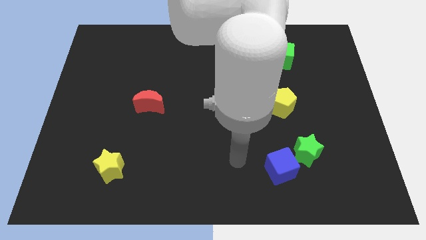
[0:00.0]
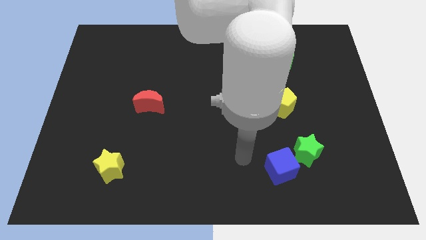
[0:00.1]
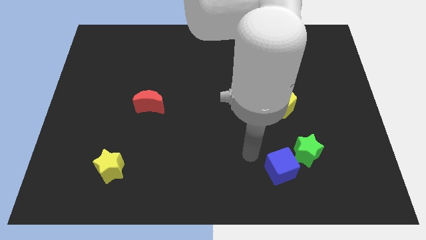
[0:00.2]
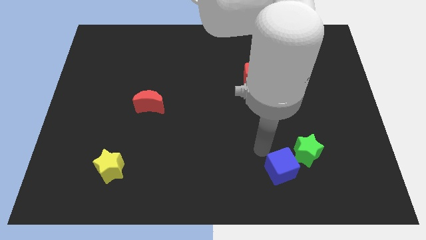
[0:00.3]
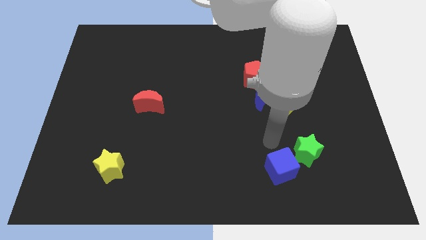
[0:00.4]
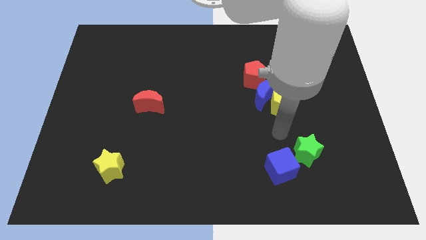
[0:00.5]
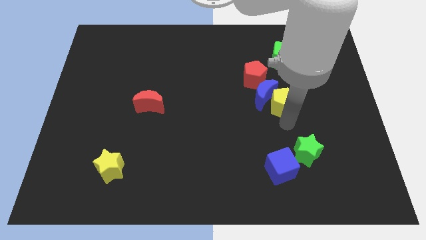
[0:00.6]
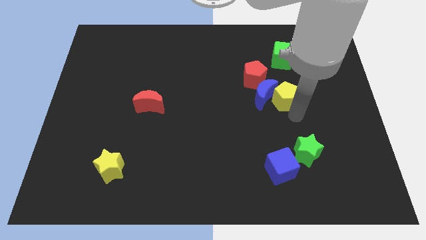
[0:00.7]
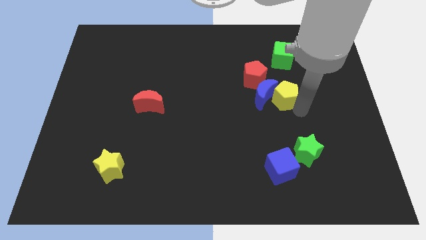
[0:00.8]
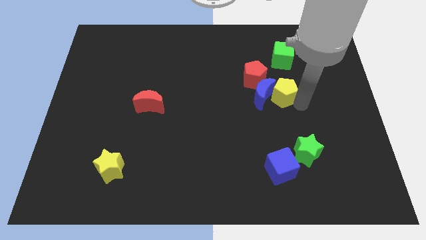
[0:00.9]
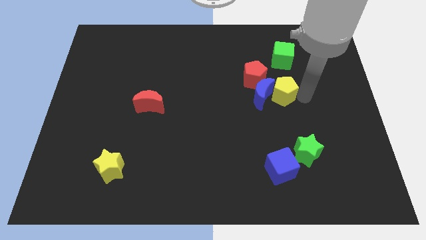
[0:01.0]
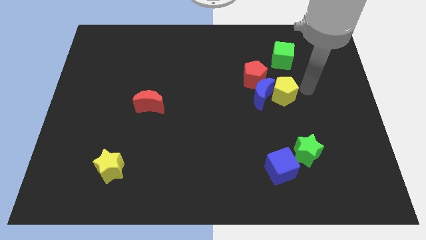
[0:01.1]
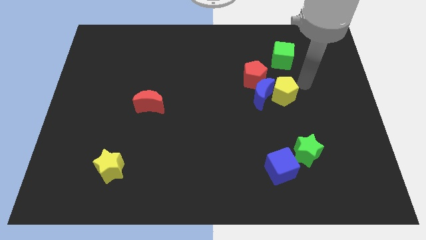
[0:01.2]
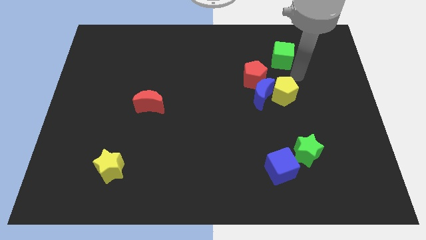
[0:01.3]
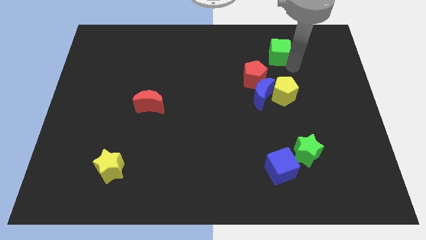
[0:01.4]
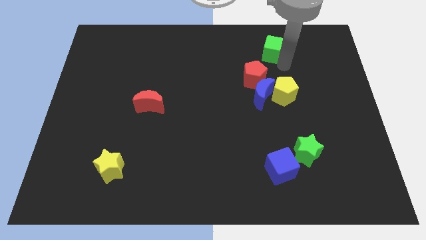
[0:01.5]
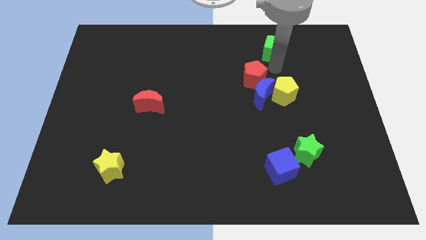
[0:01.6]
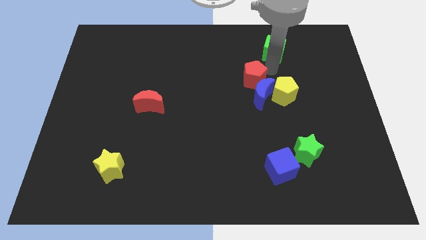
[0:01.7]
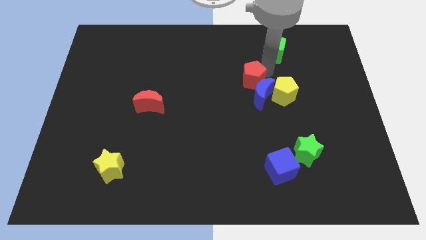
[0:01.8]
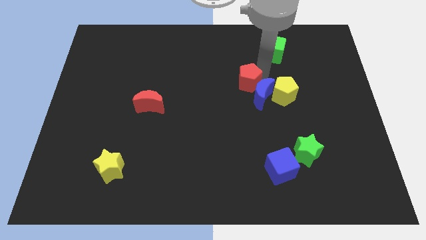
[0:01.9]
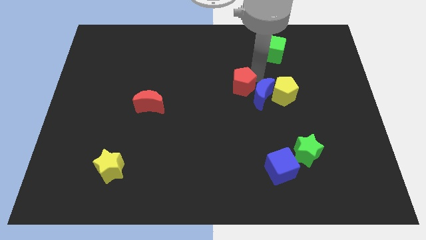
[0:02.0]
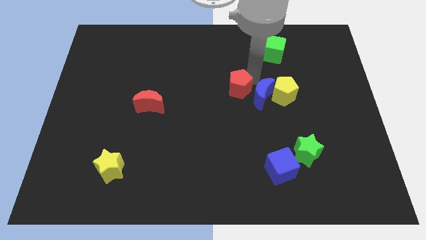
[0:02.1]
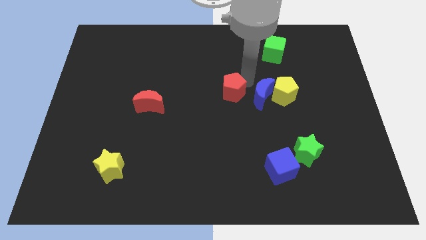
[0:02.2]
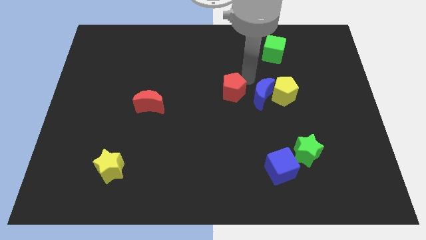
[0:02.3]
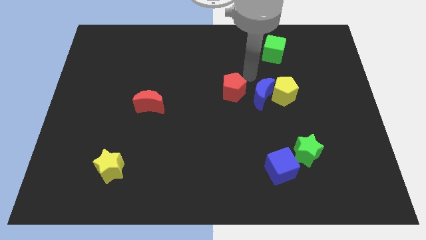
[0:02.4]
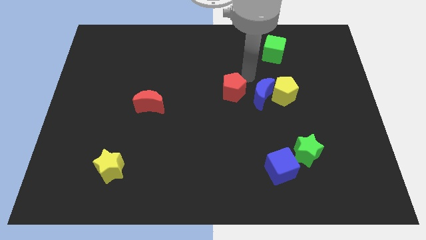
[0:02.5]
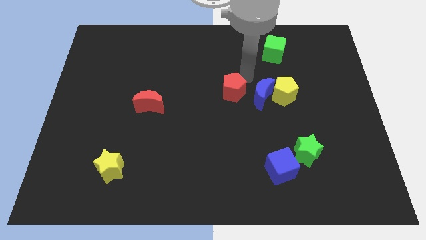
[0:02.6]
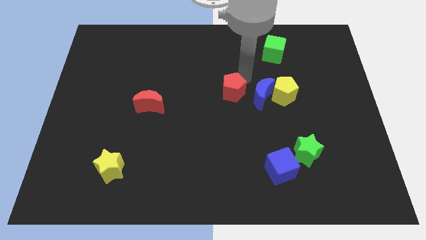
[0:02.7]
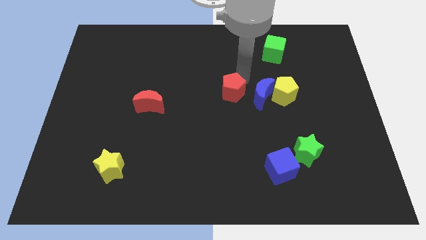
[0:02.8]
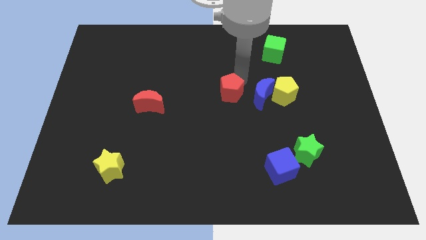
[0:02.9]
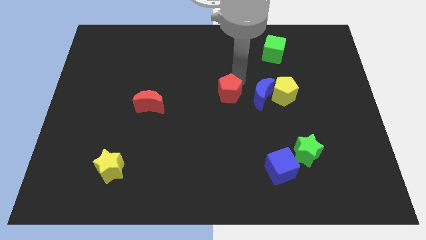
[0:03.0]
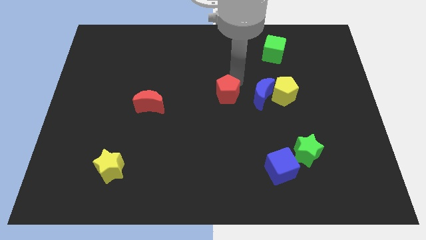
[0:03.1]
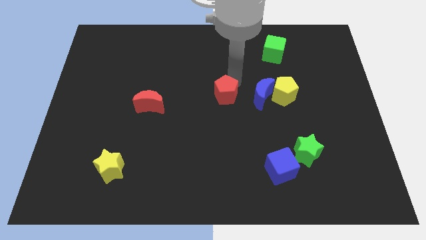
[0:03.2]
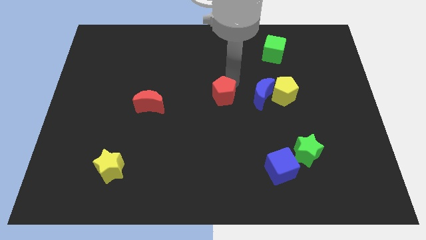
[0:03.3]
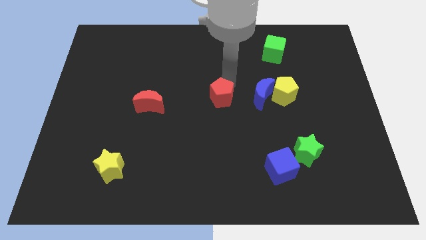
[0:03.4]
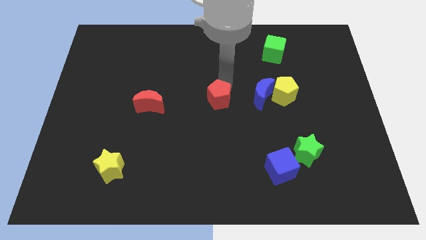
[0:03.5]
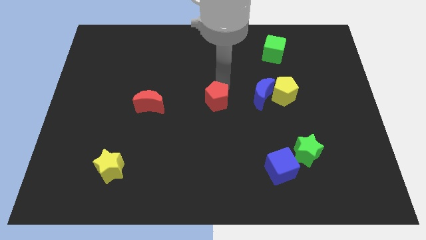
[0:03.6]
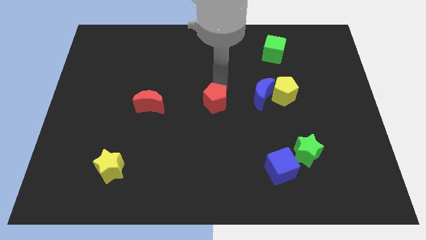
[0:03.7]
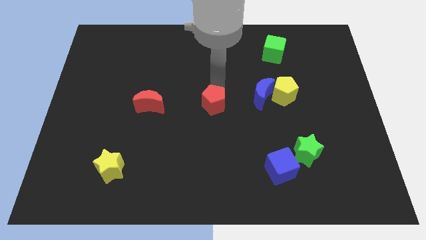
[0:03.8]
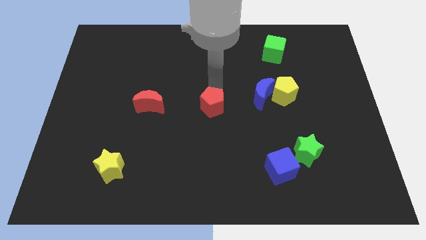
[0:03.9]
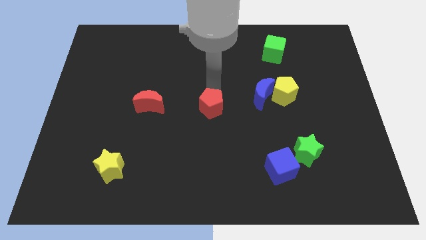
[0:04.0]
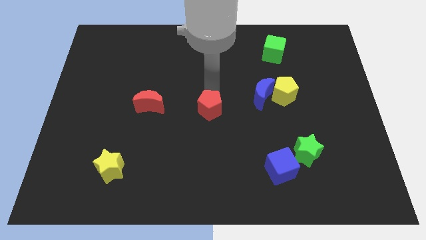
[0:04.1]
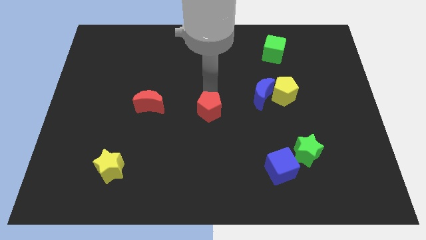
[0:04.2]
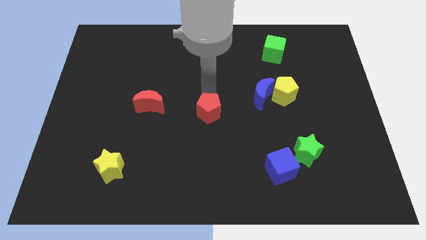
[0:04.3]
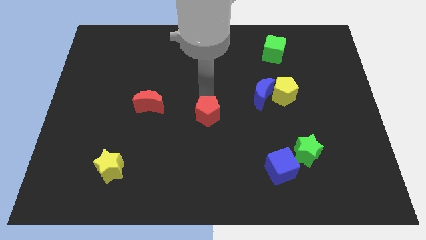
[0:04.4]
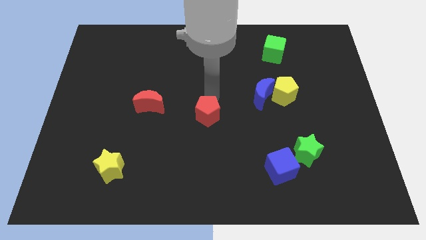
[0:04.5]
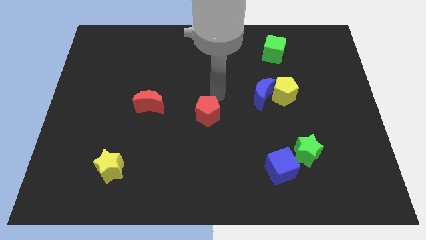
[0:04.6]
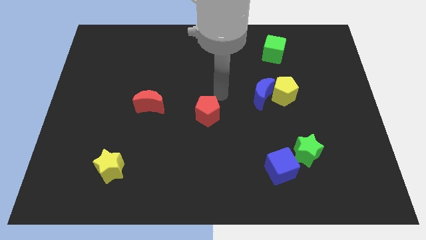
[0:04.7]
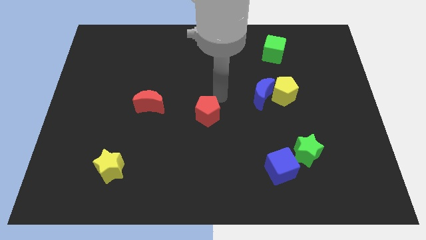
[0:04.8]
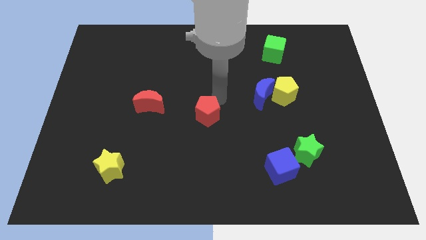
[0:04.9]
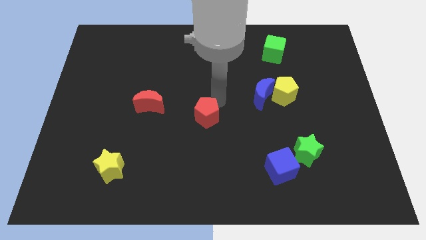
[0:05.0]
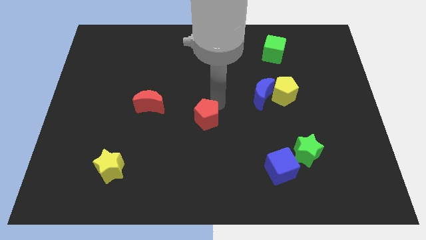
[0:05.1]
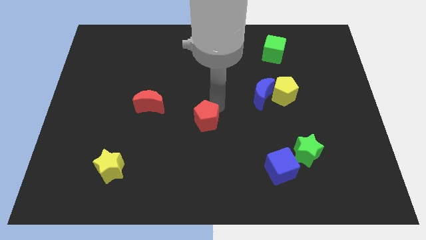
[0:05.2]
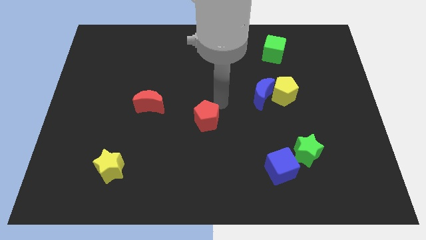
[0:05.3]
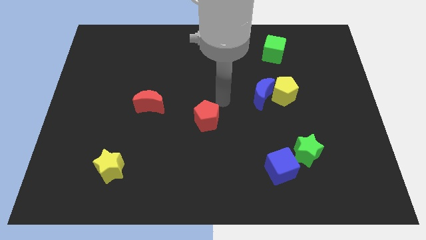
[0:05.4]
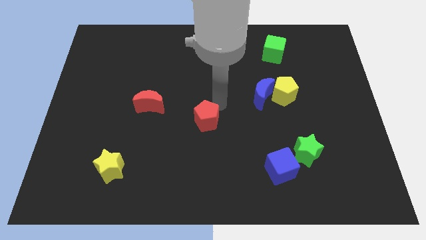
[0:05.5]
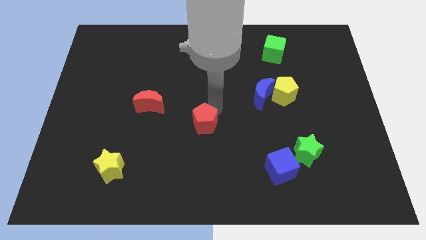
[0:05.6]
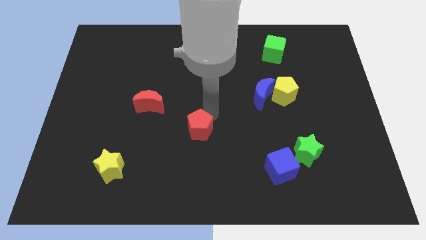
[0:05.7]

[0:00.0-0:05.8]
push the red pentagon downwards and left diagonally

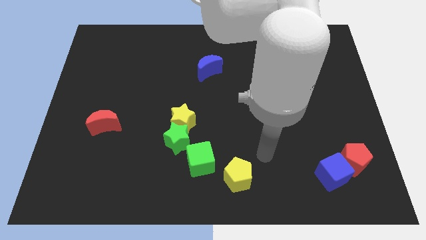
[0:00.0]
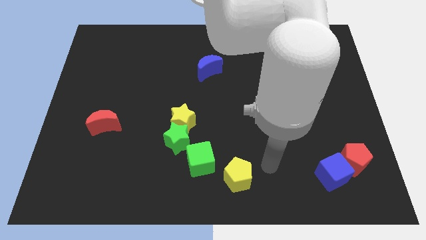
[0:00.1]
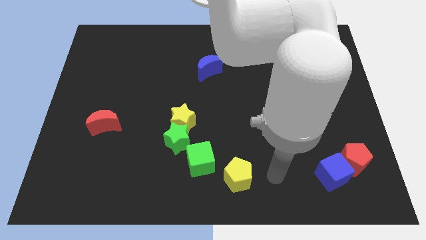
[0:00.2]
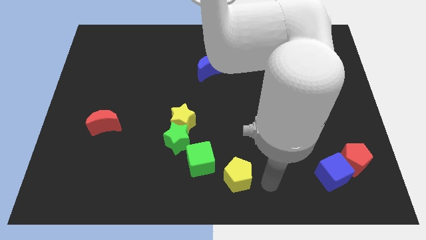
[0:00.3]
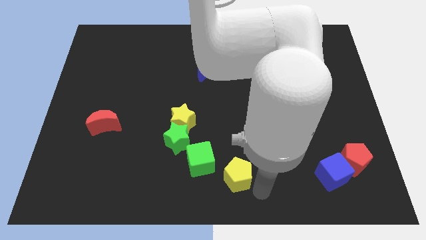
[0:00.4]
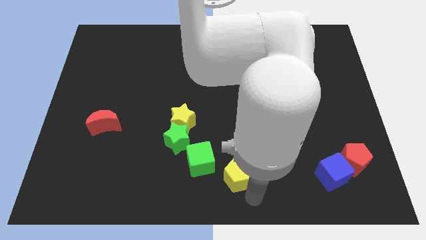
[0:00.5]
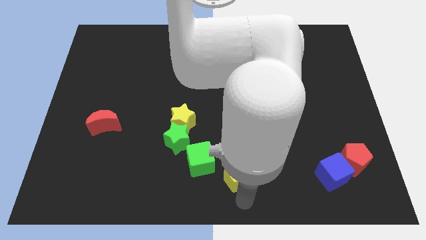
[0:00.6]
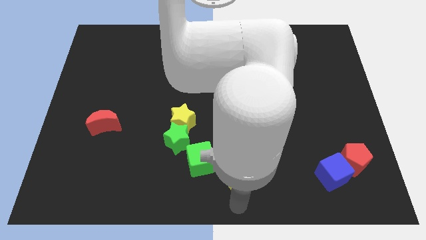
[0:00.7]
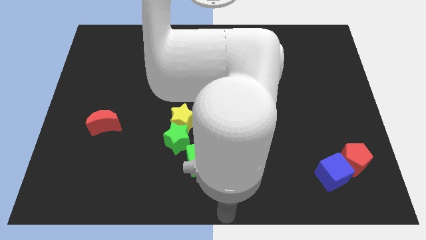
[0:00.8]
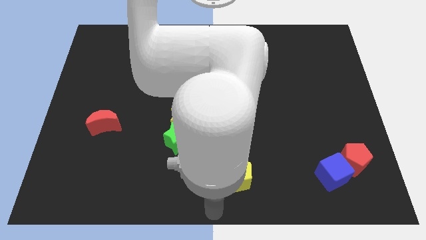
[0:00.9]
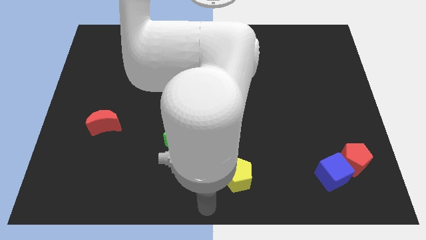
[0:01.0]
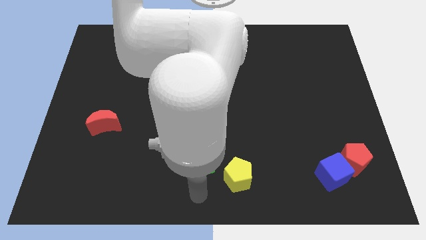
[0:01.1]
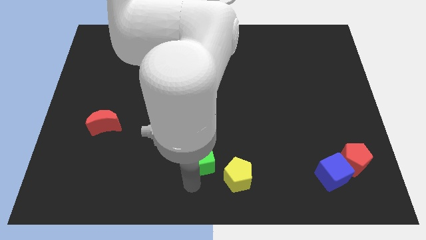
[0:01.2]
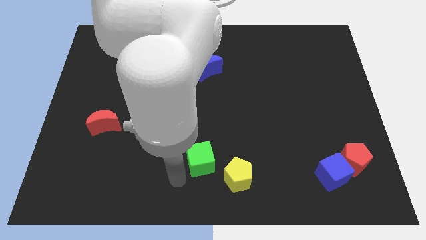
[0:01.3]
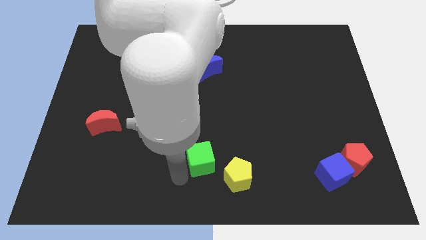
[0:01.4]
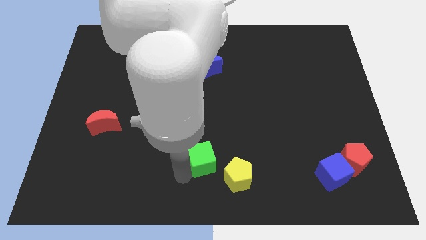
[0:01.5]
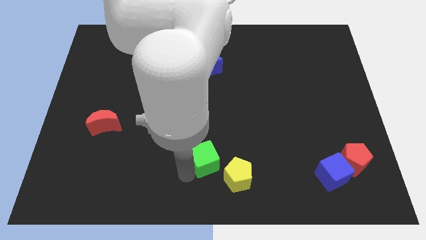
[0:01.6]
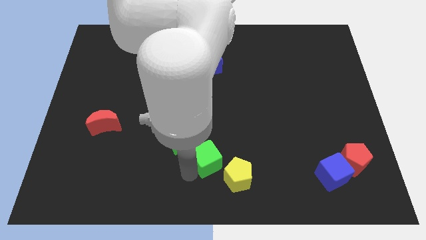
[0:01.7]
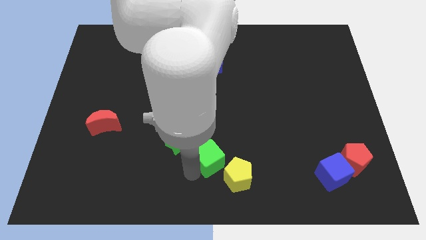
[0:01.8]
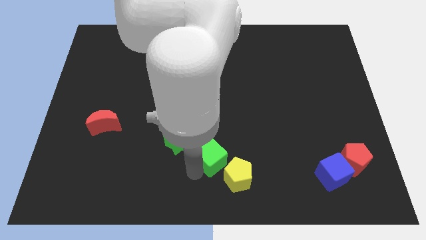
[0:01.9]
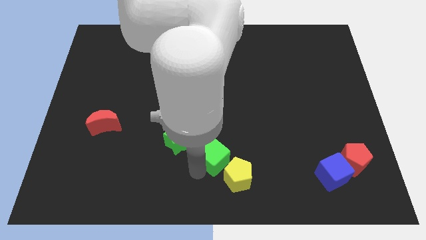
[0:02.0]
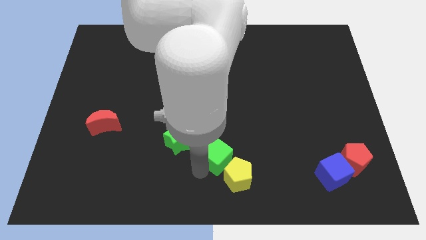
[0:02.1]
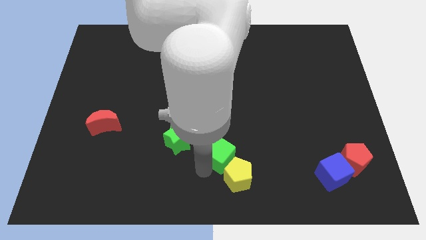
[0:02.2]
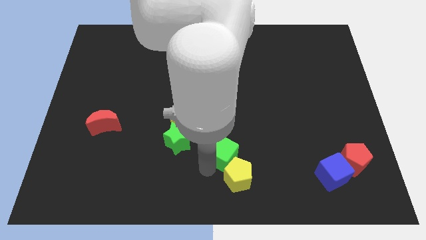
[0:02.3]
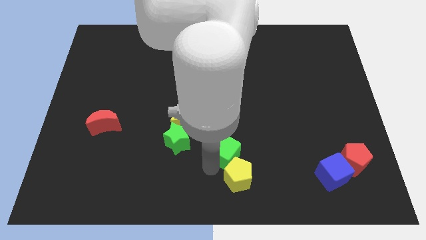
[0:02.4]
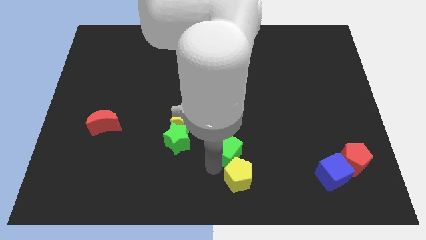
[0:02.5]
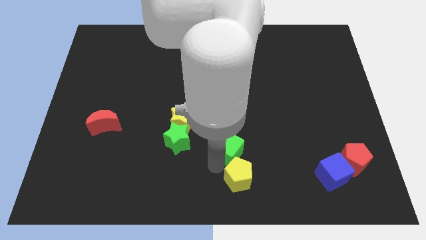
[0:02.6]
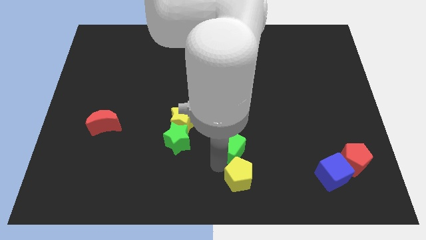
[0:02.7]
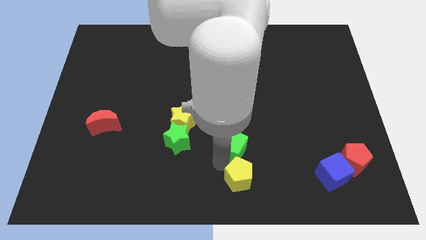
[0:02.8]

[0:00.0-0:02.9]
slightly push the green cube diagonally up and to the right
